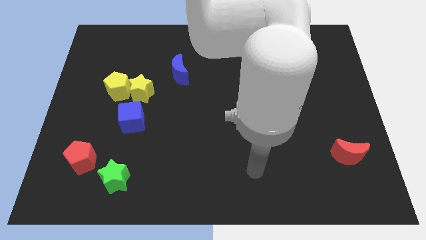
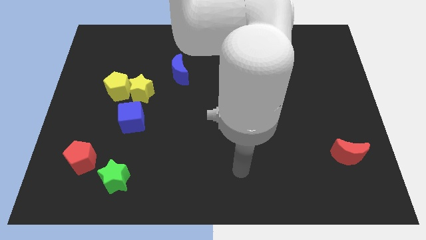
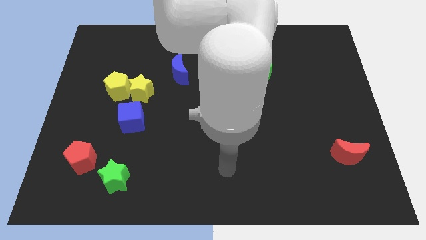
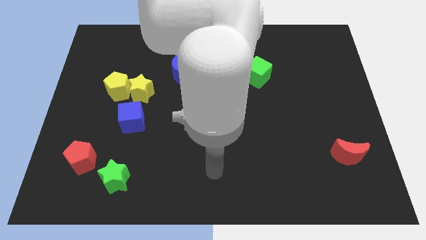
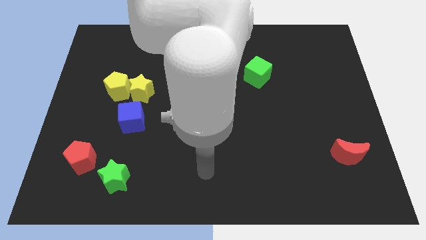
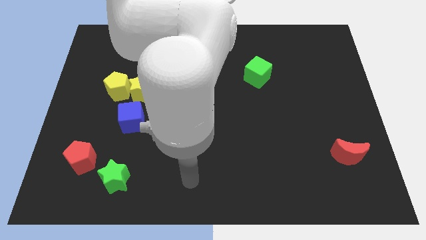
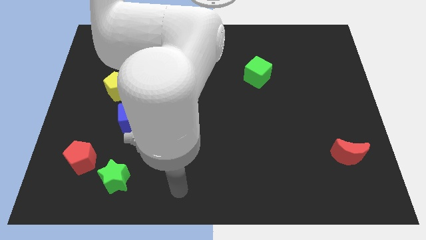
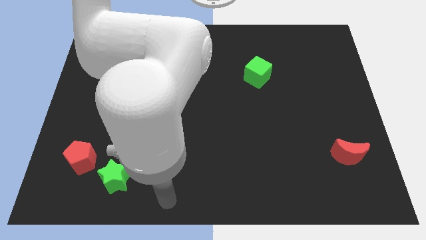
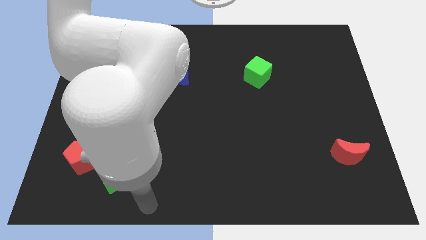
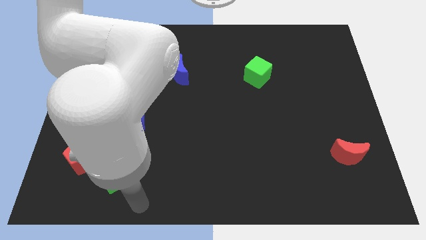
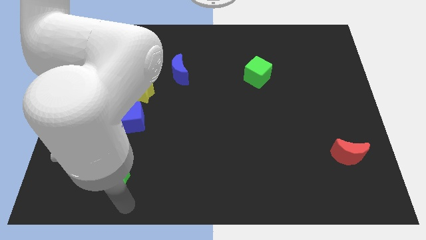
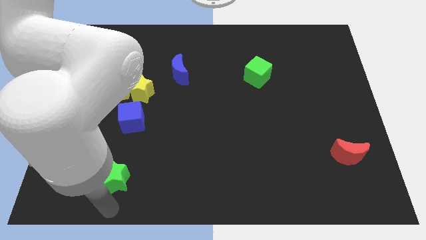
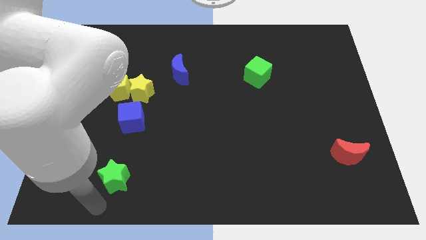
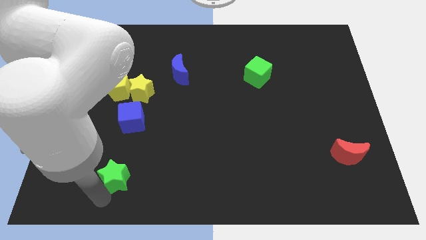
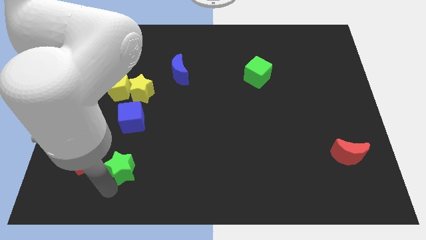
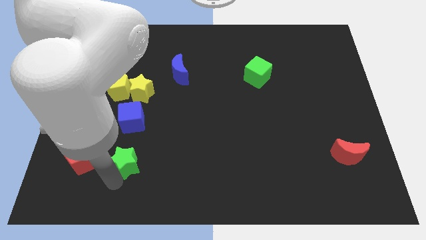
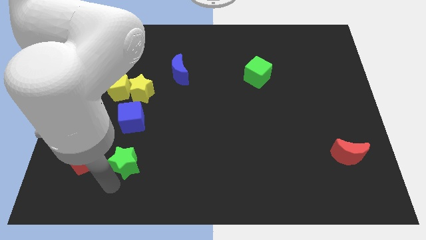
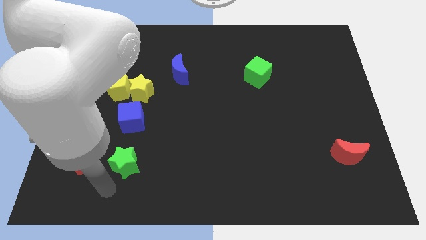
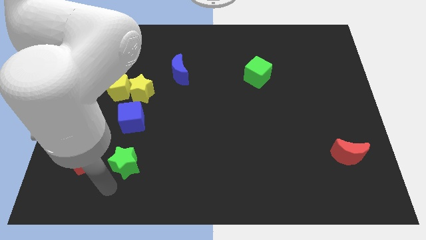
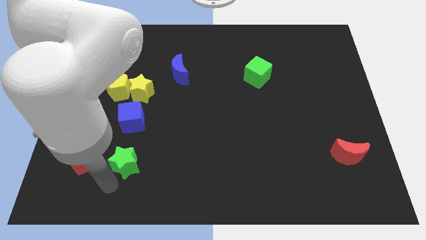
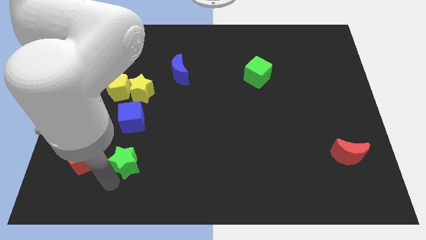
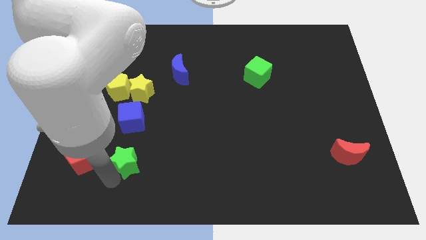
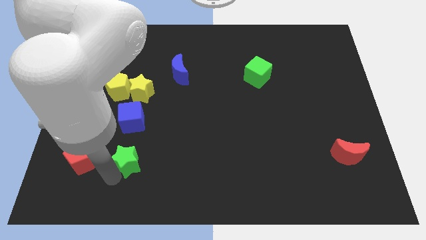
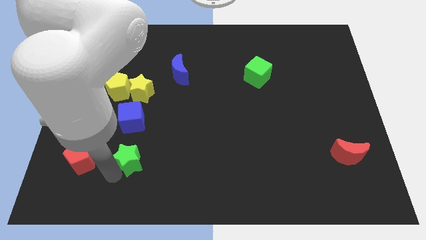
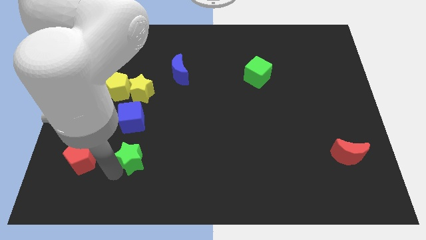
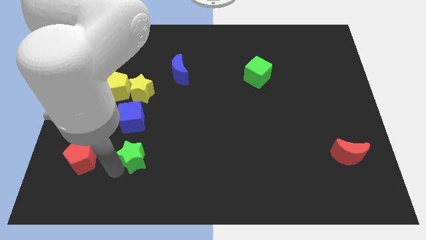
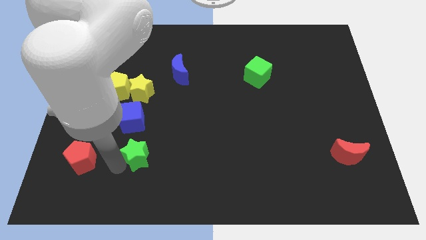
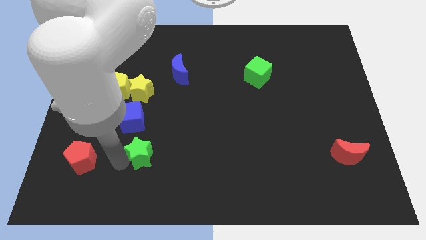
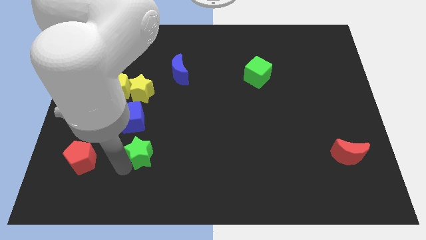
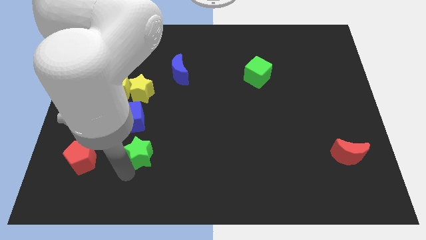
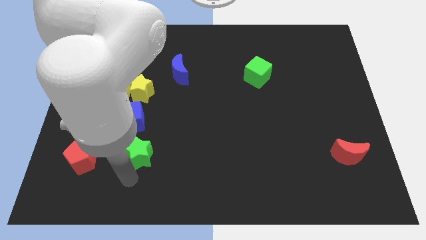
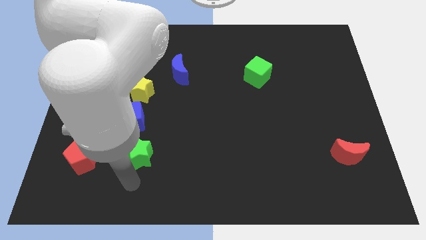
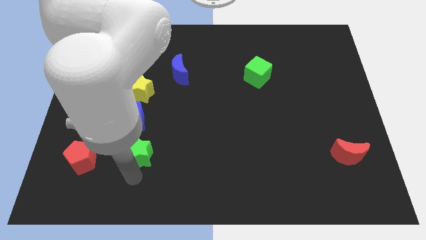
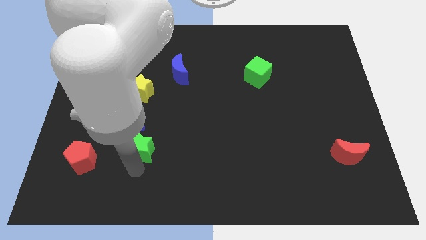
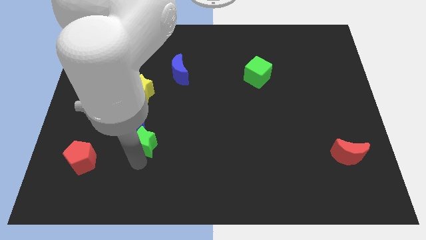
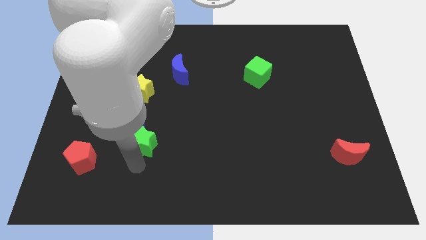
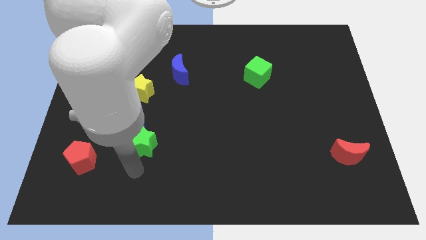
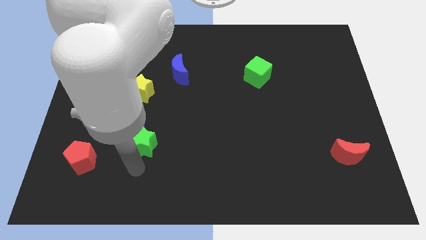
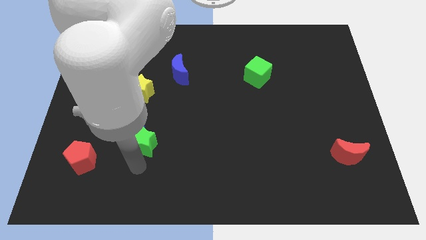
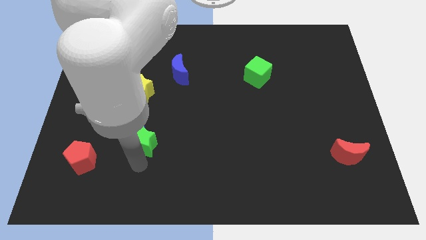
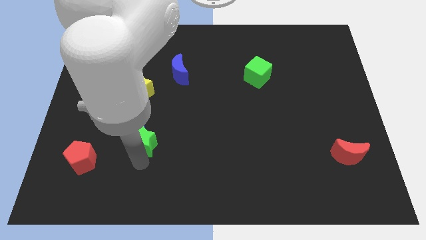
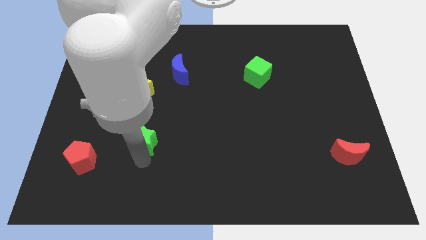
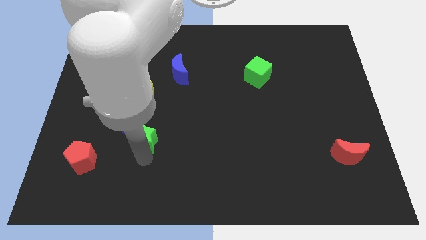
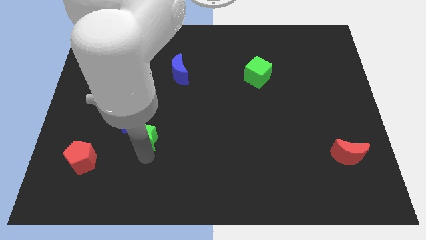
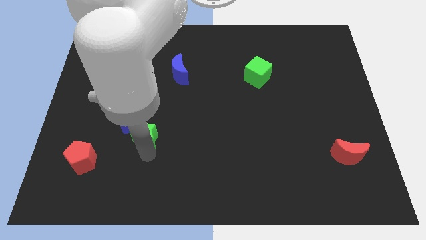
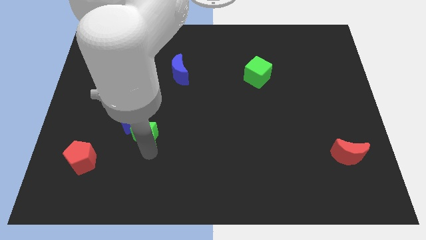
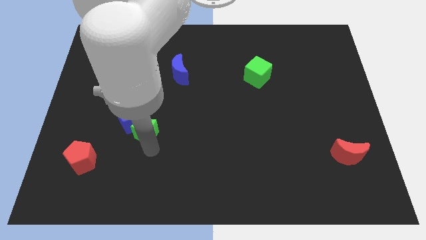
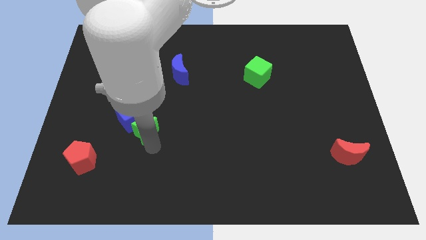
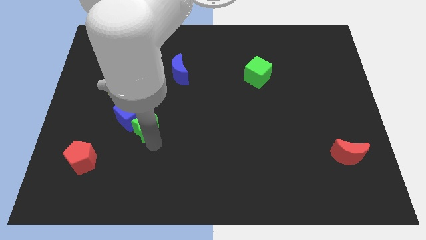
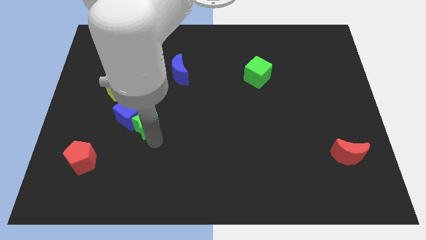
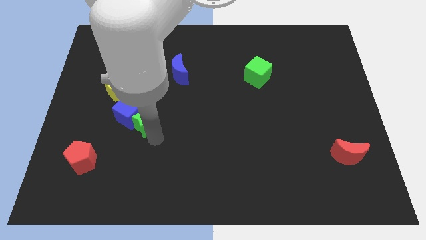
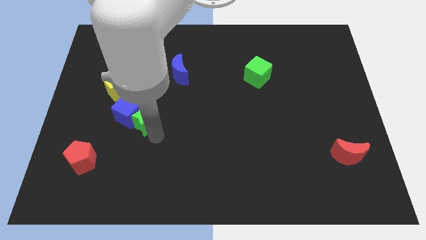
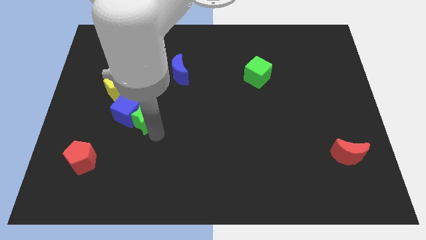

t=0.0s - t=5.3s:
move the green star to the bottom right of the yellow pentagon

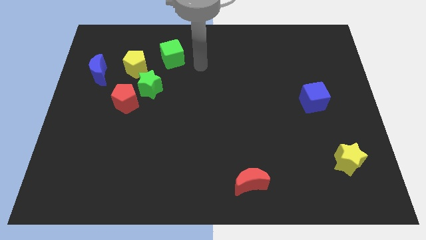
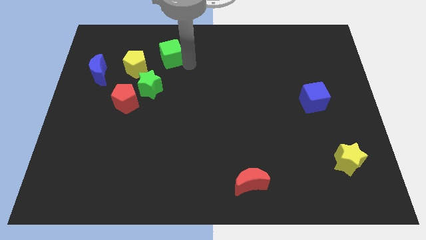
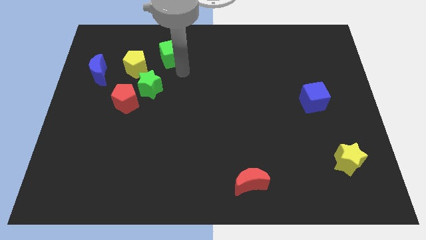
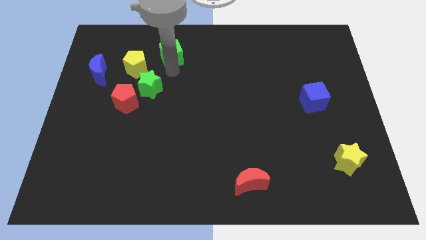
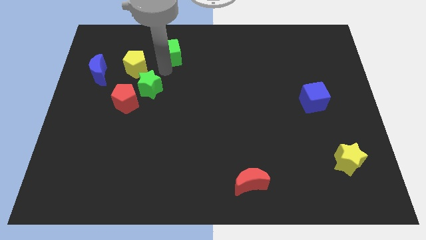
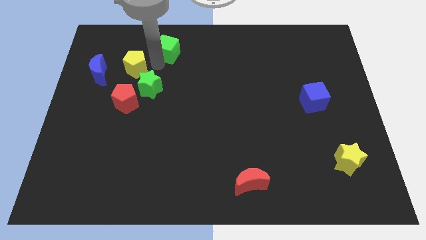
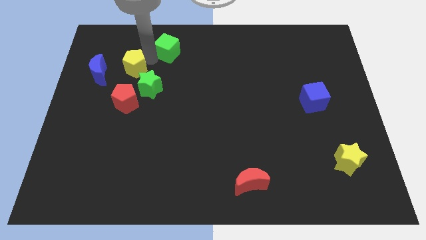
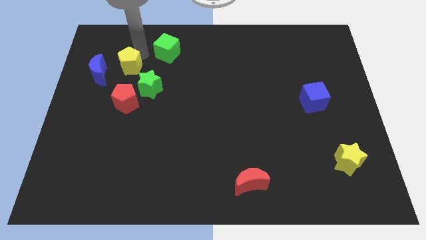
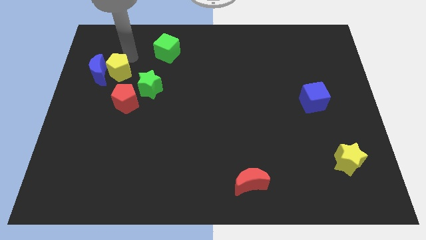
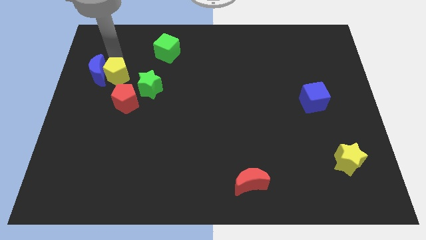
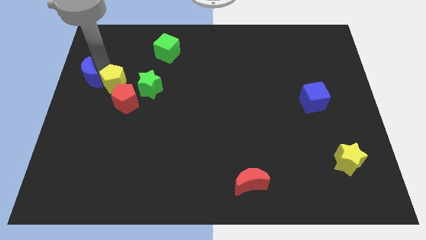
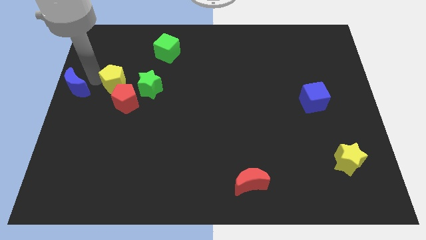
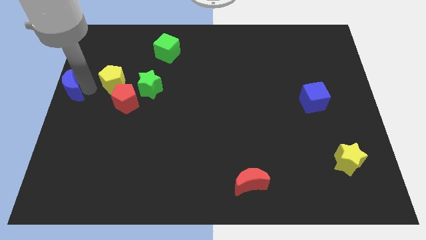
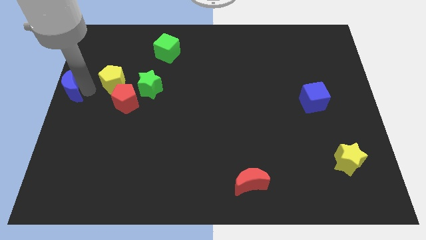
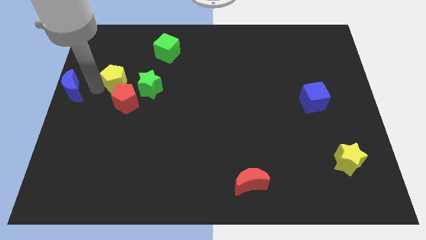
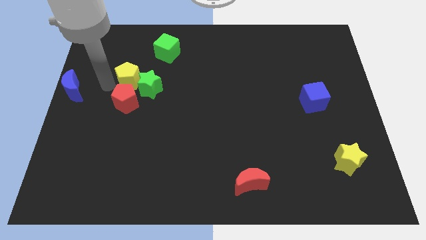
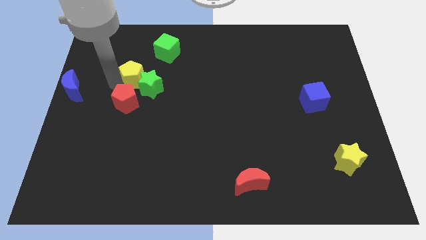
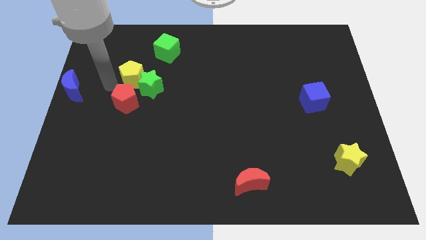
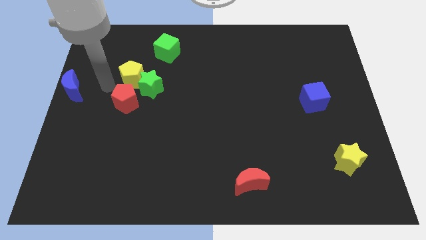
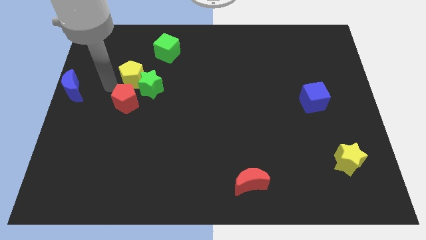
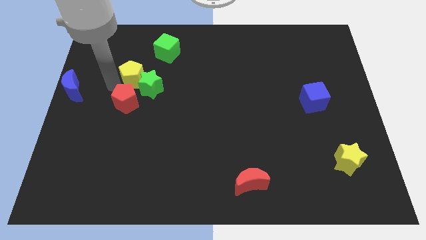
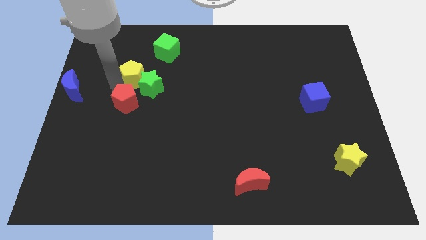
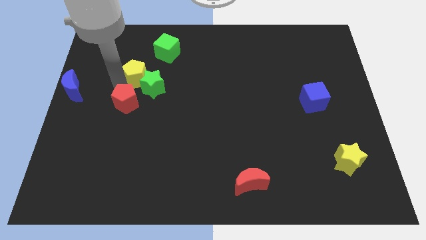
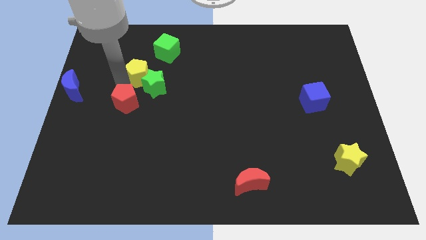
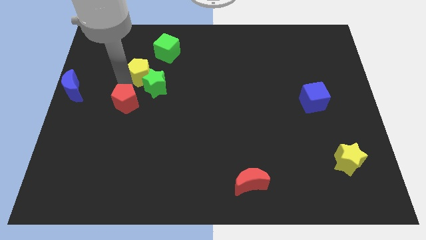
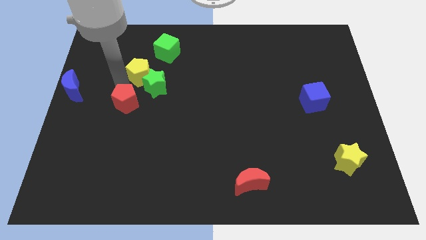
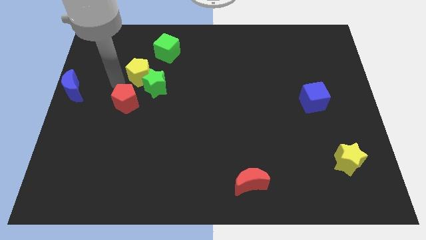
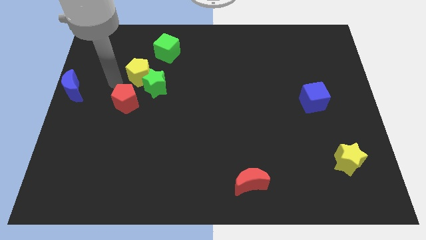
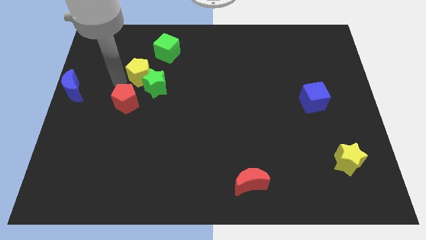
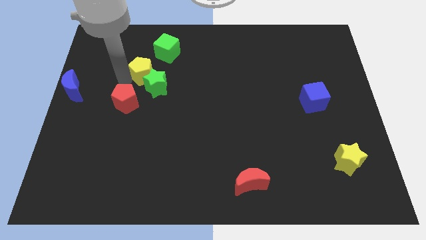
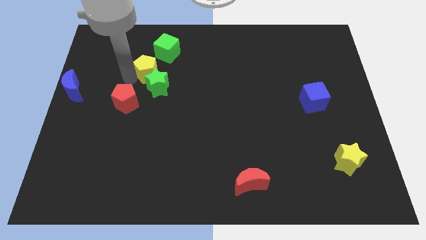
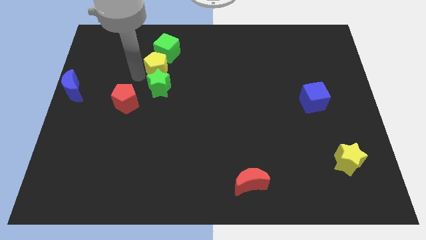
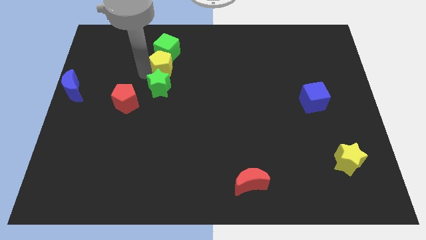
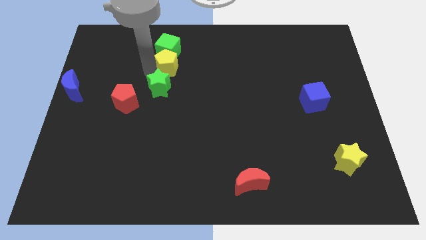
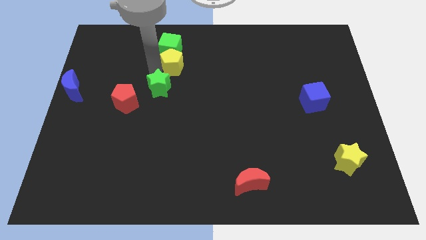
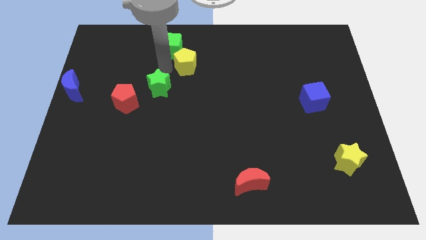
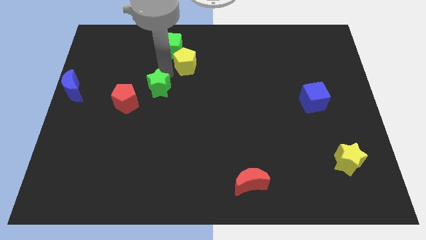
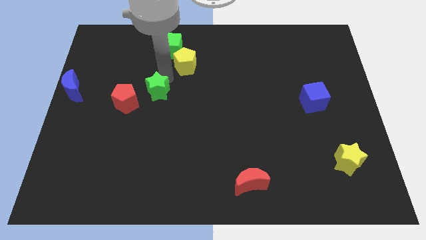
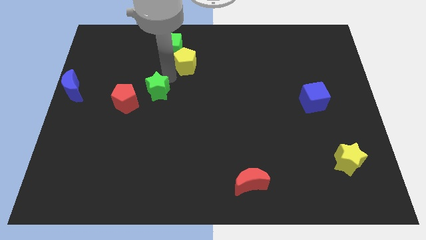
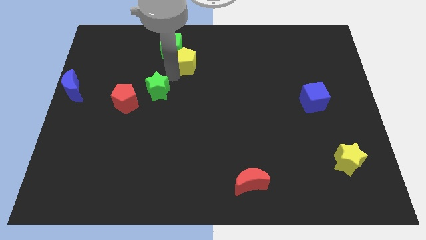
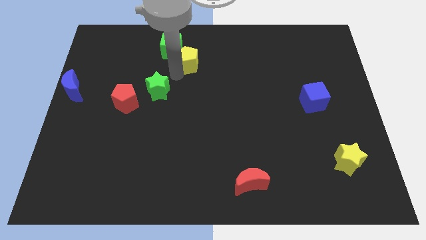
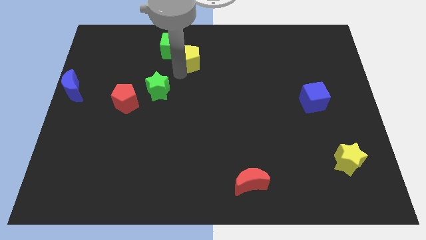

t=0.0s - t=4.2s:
slide the yellow pentagon to the right side of the green cube
